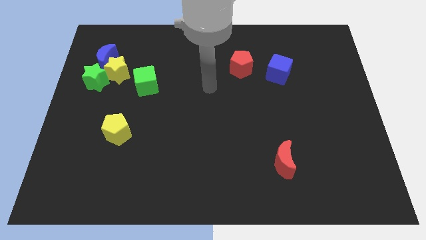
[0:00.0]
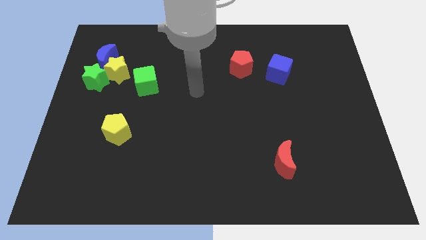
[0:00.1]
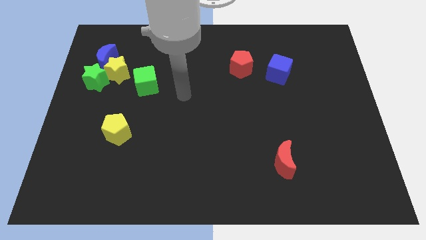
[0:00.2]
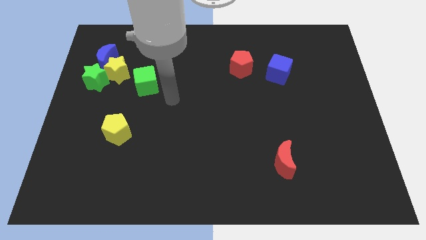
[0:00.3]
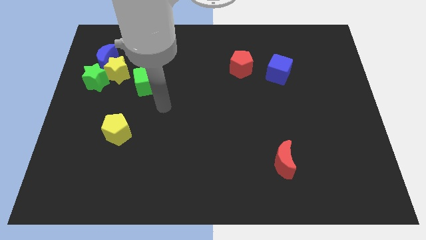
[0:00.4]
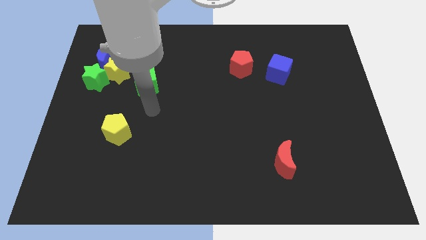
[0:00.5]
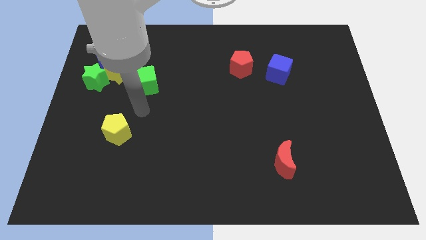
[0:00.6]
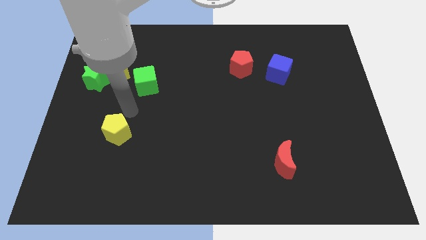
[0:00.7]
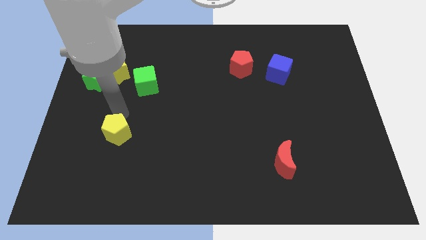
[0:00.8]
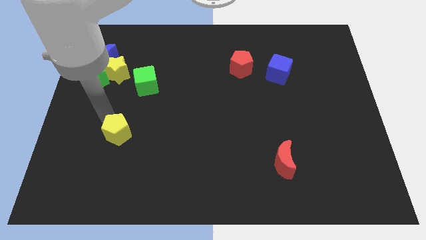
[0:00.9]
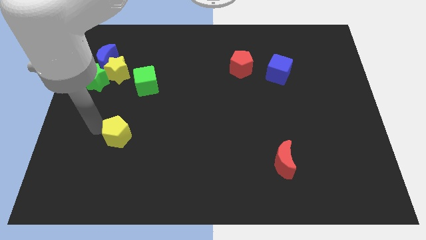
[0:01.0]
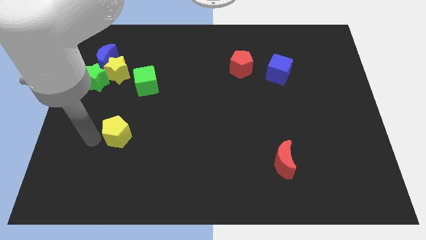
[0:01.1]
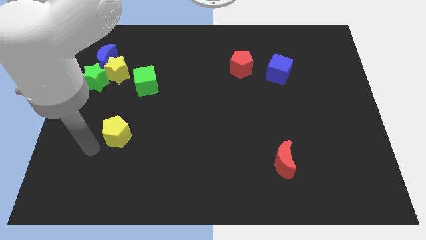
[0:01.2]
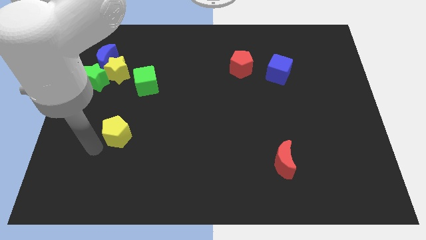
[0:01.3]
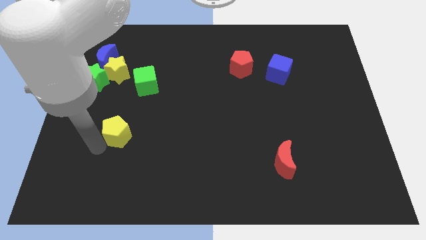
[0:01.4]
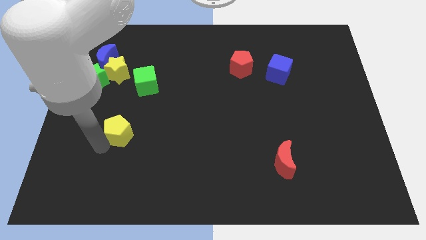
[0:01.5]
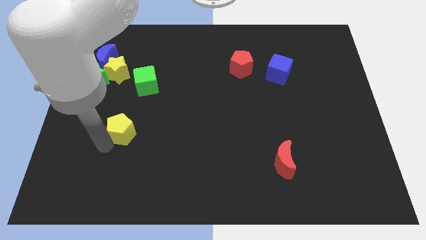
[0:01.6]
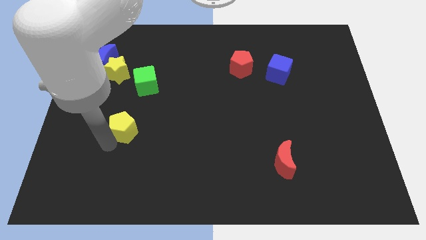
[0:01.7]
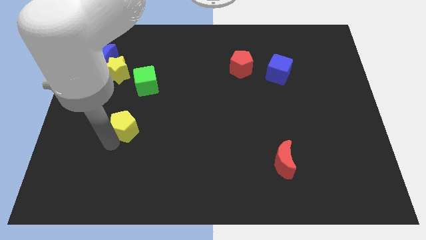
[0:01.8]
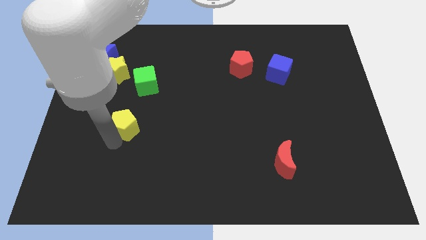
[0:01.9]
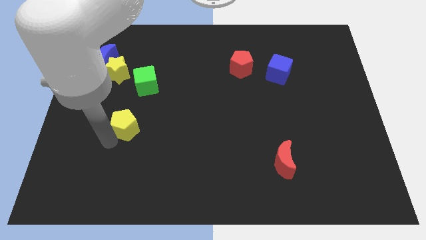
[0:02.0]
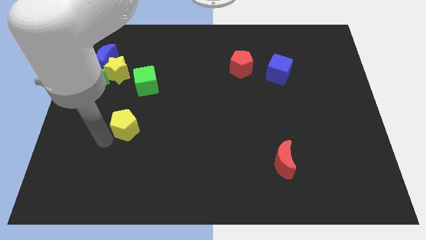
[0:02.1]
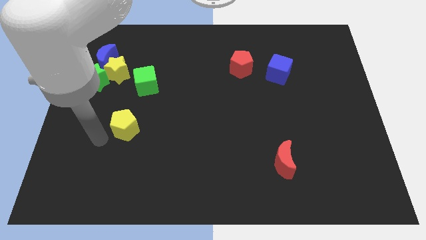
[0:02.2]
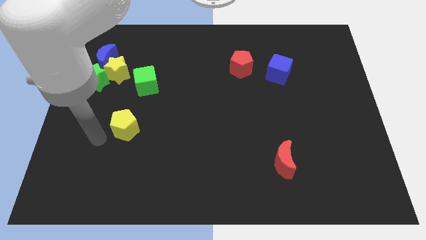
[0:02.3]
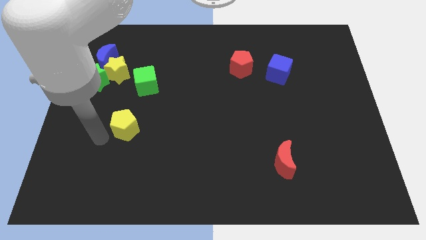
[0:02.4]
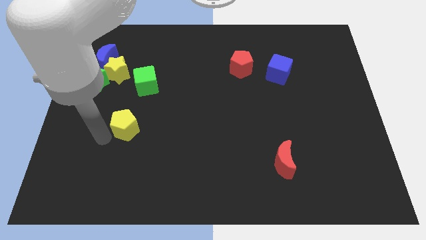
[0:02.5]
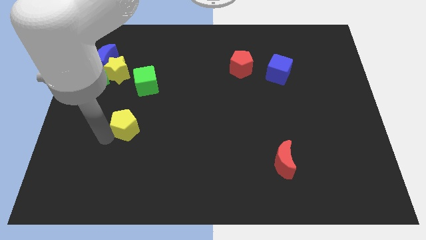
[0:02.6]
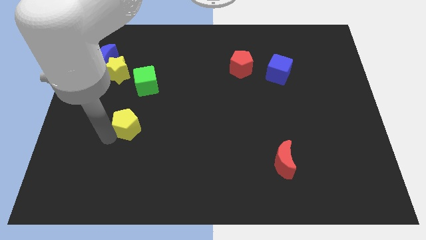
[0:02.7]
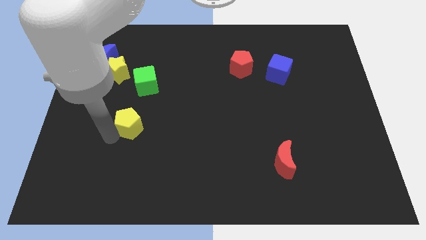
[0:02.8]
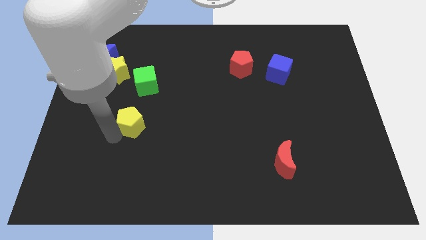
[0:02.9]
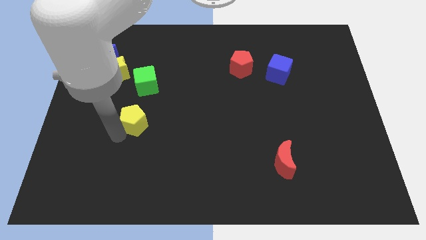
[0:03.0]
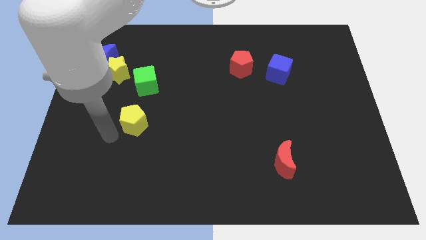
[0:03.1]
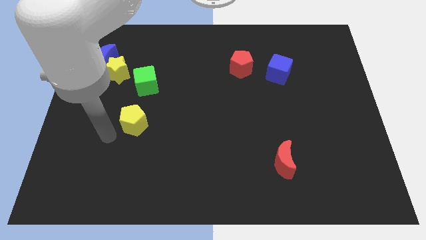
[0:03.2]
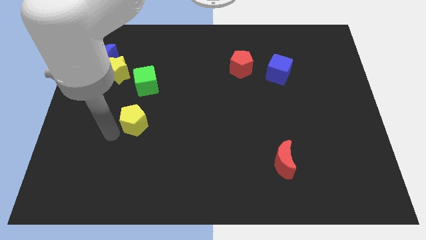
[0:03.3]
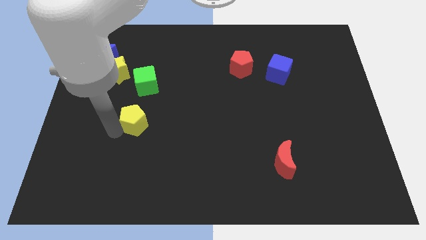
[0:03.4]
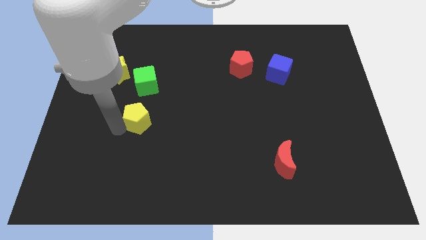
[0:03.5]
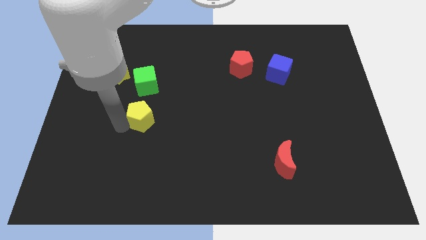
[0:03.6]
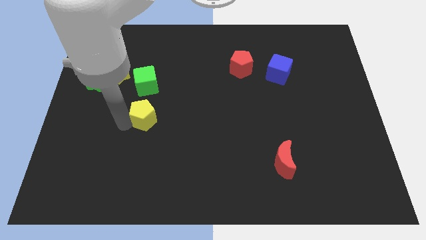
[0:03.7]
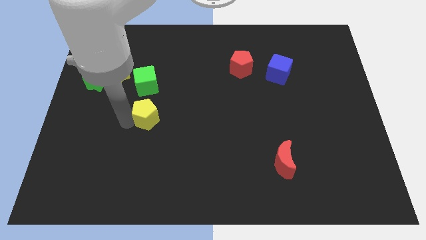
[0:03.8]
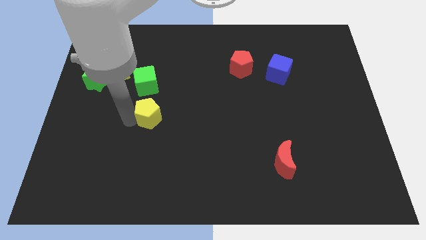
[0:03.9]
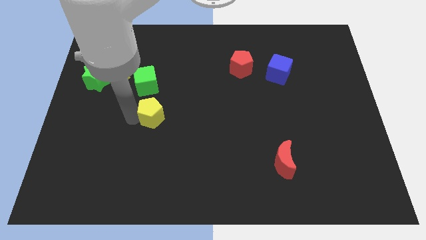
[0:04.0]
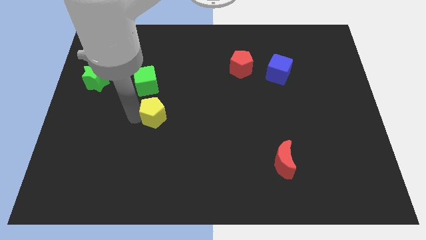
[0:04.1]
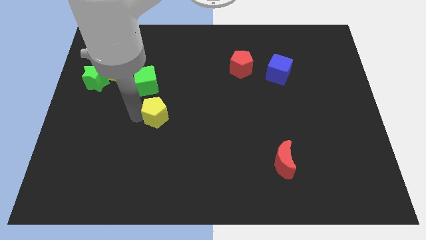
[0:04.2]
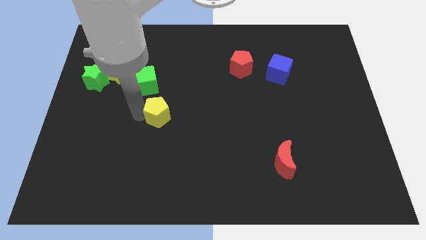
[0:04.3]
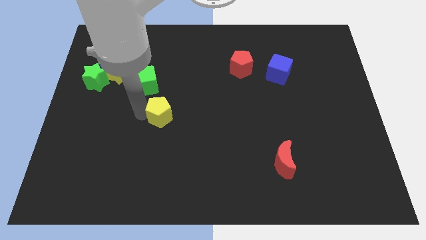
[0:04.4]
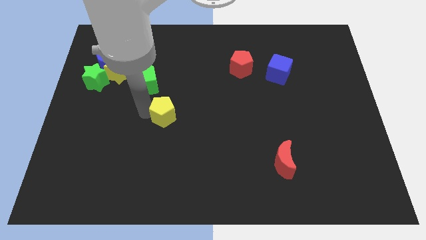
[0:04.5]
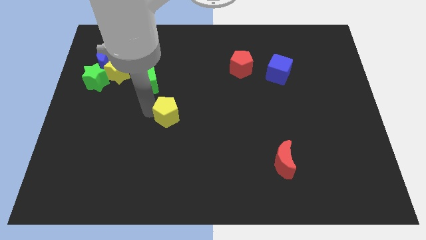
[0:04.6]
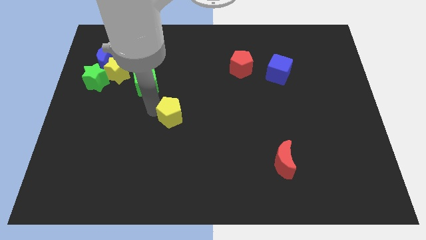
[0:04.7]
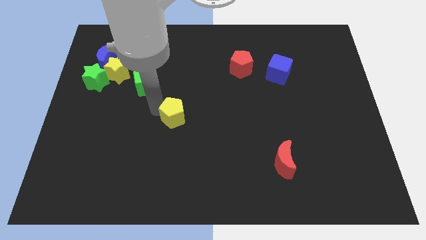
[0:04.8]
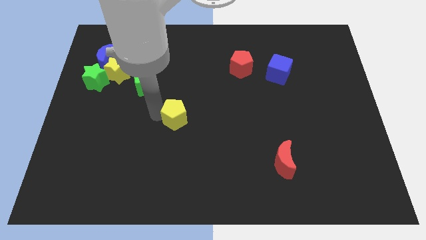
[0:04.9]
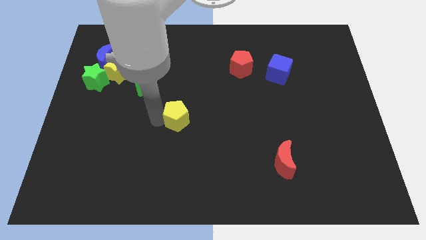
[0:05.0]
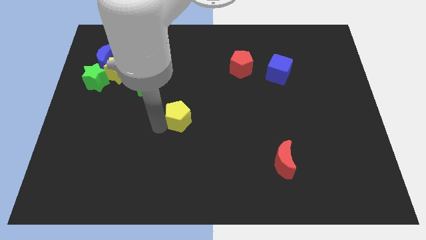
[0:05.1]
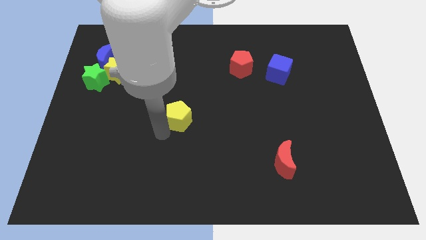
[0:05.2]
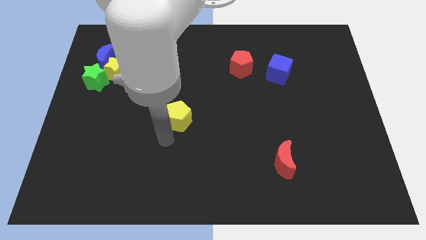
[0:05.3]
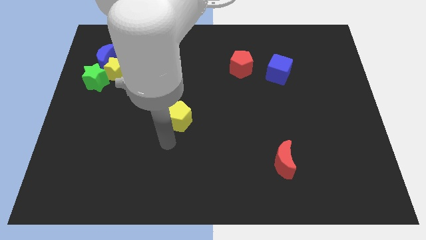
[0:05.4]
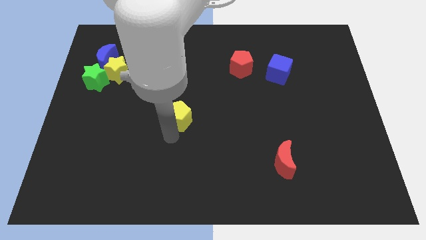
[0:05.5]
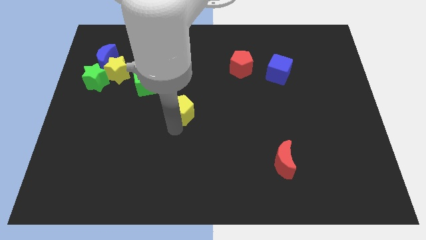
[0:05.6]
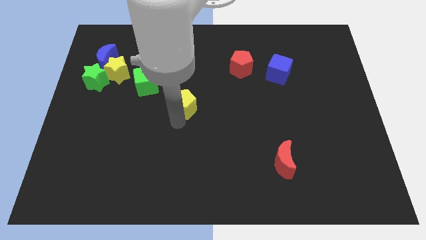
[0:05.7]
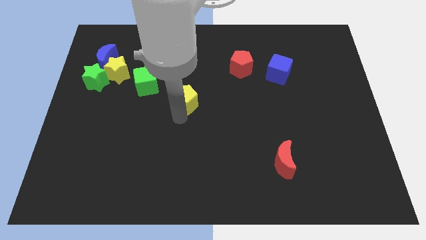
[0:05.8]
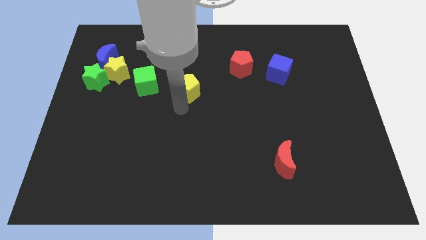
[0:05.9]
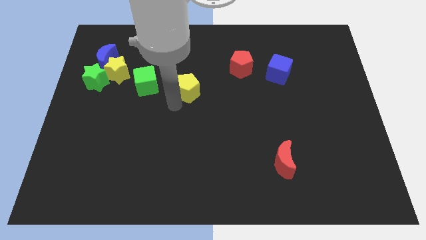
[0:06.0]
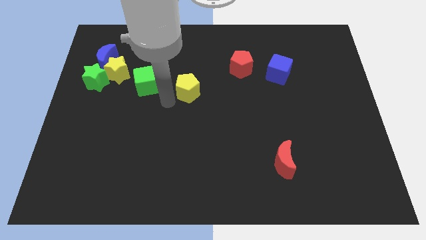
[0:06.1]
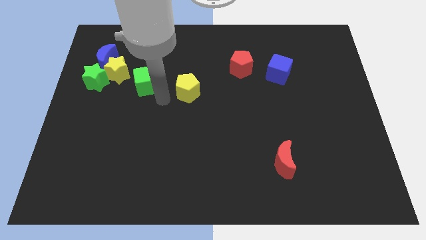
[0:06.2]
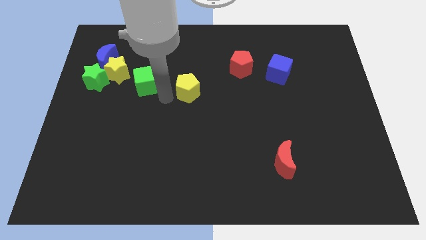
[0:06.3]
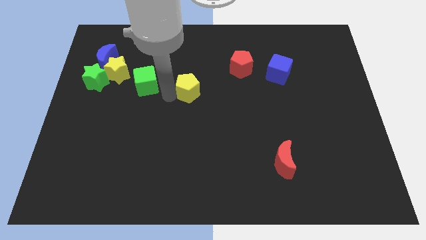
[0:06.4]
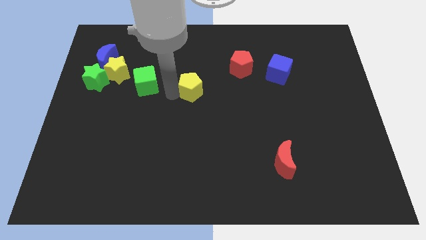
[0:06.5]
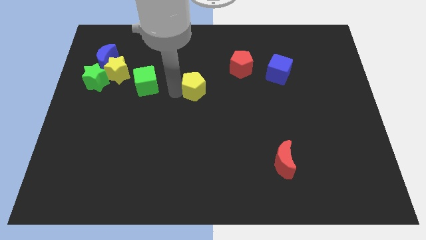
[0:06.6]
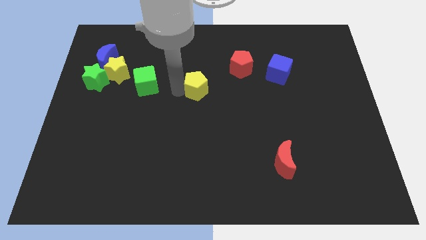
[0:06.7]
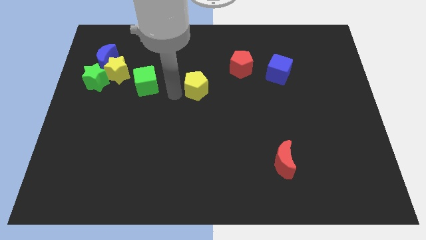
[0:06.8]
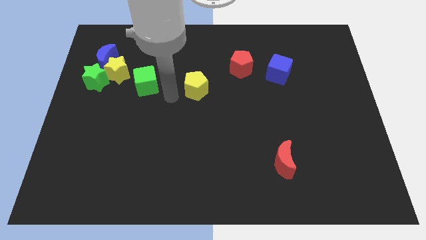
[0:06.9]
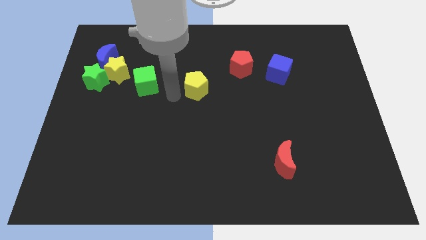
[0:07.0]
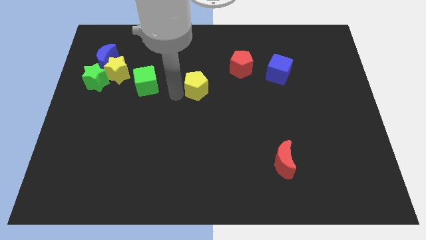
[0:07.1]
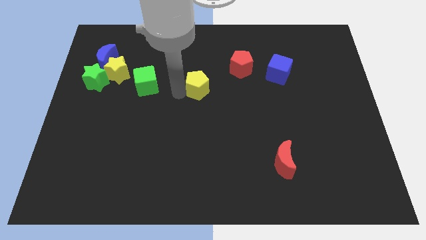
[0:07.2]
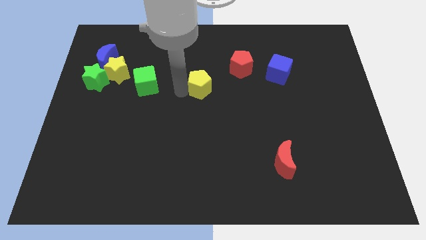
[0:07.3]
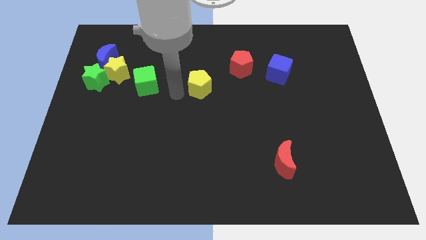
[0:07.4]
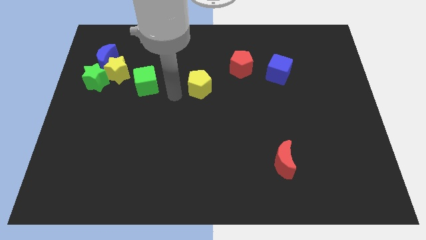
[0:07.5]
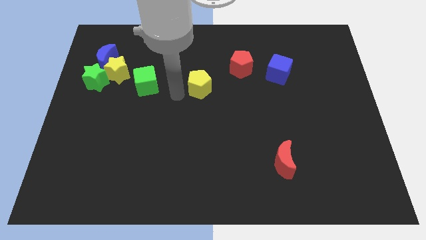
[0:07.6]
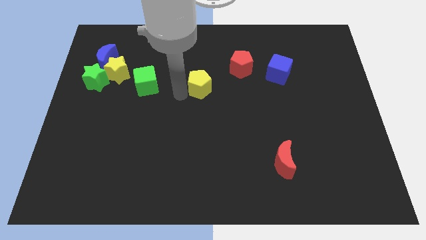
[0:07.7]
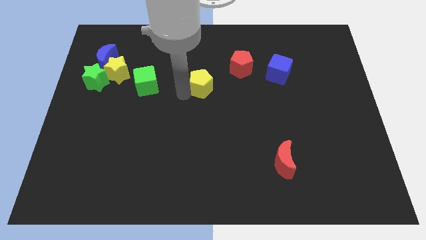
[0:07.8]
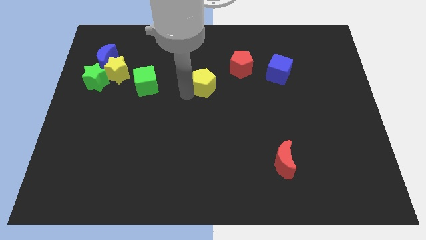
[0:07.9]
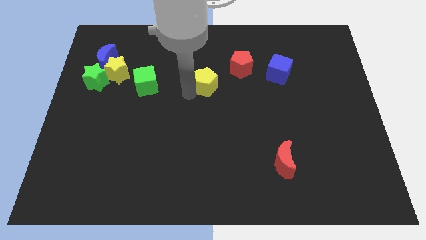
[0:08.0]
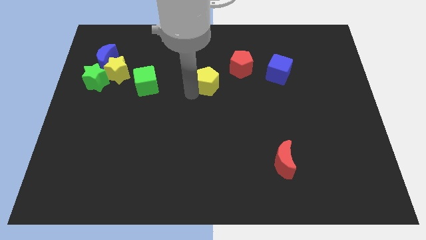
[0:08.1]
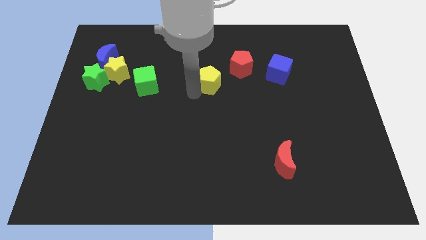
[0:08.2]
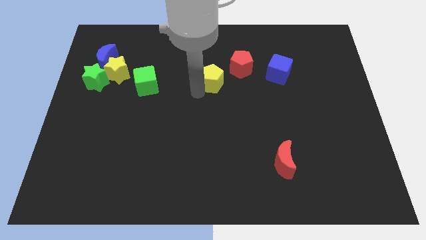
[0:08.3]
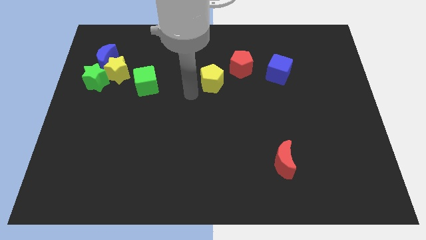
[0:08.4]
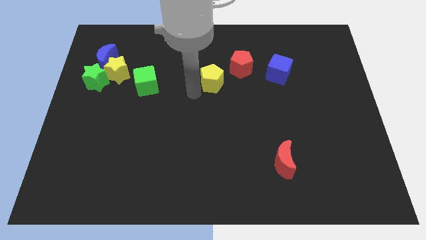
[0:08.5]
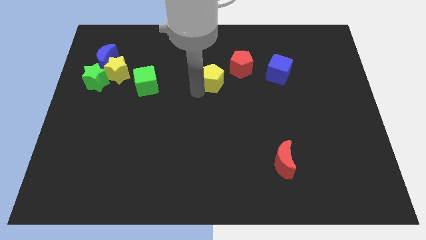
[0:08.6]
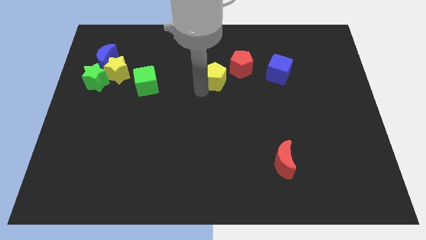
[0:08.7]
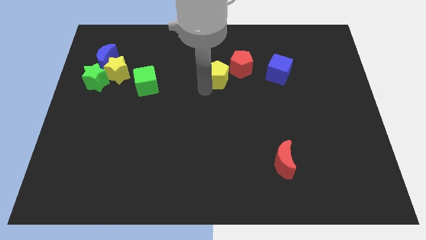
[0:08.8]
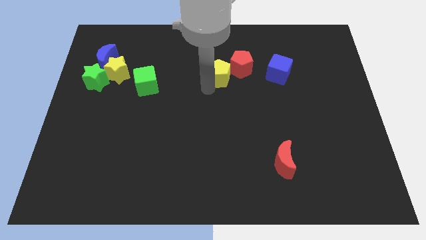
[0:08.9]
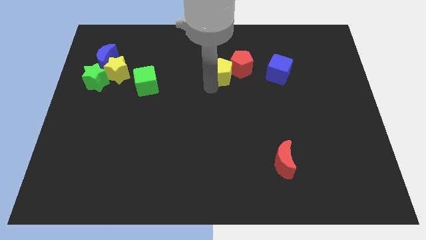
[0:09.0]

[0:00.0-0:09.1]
put the yellow pentagon close to the red pentagon
